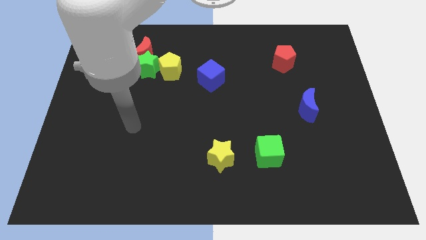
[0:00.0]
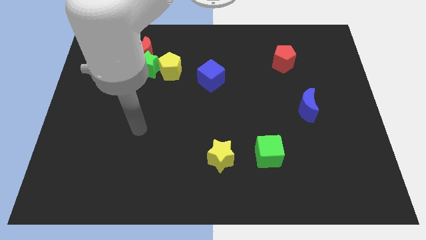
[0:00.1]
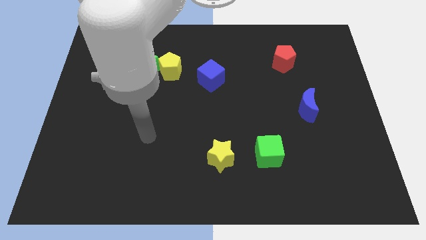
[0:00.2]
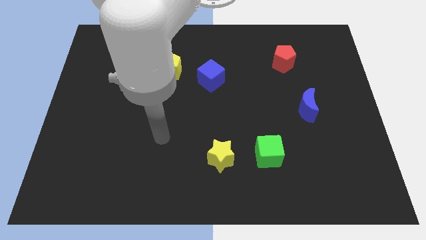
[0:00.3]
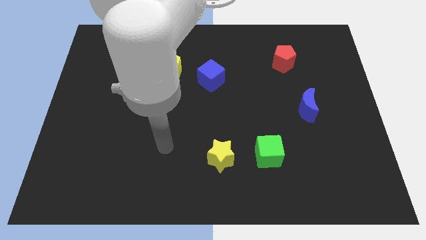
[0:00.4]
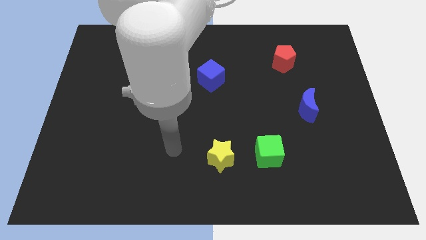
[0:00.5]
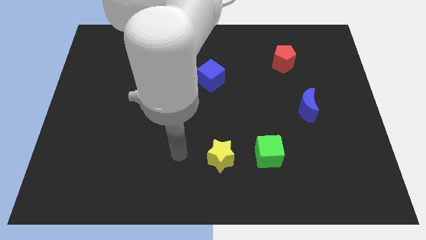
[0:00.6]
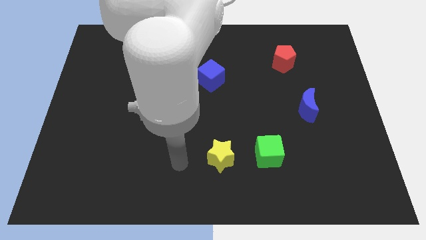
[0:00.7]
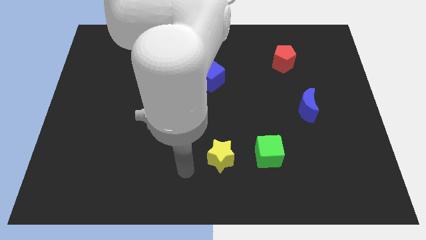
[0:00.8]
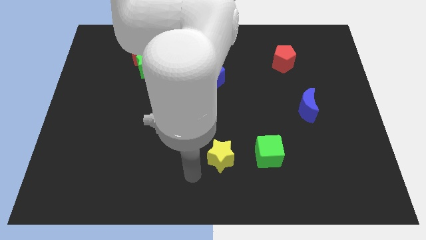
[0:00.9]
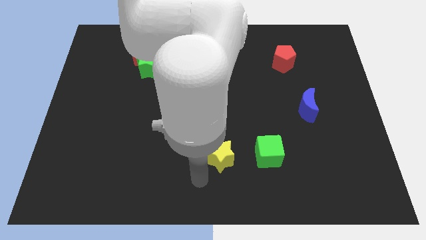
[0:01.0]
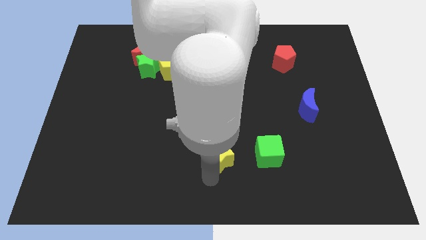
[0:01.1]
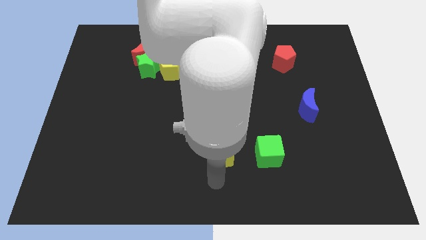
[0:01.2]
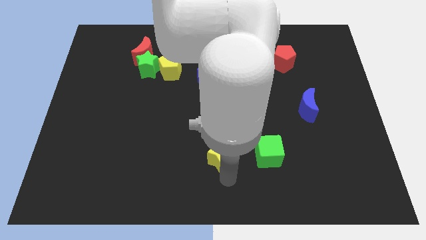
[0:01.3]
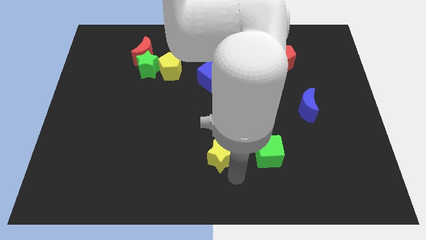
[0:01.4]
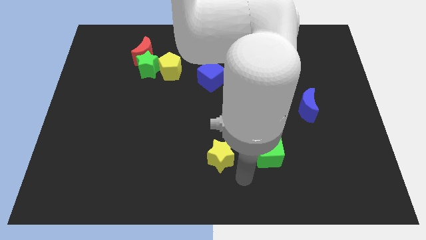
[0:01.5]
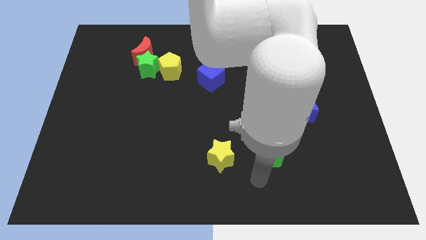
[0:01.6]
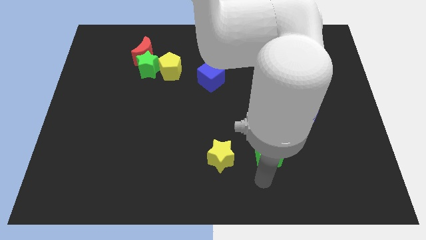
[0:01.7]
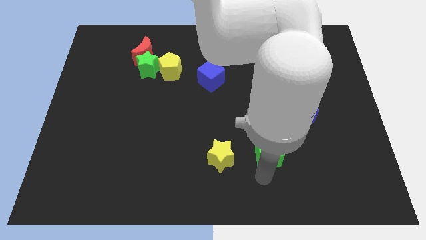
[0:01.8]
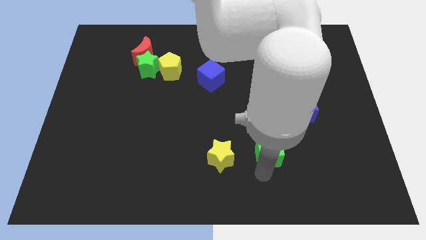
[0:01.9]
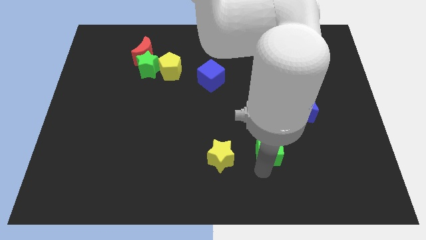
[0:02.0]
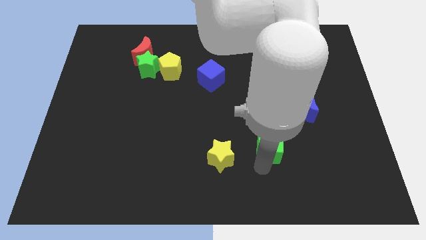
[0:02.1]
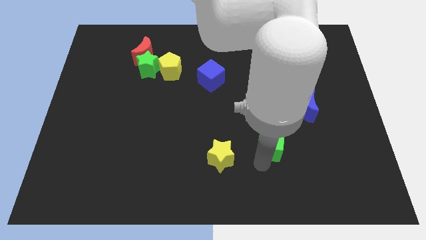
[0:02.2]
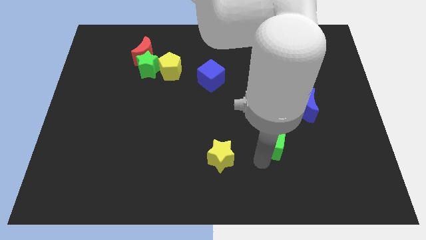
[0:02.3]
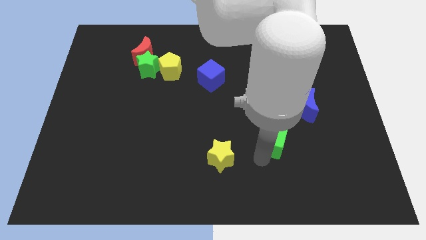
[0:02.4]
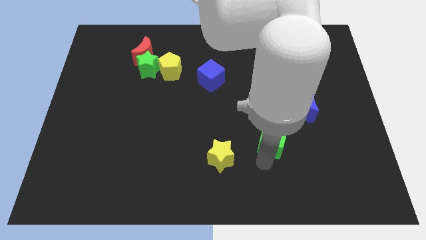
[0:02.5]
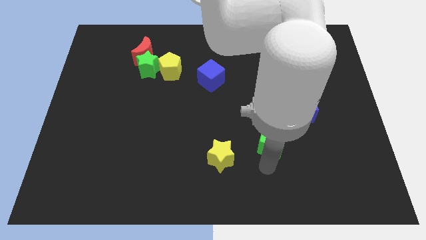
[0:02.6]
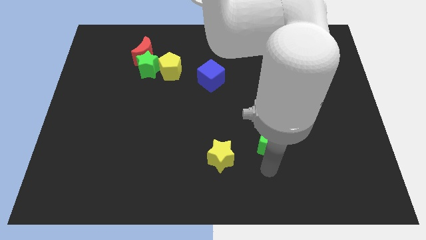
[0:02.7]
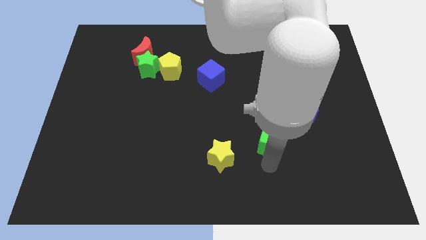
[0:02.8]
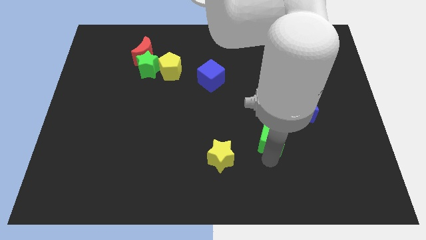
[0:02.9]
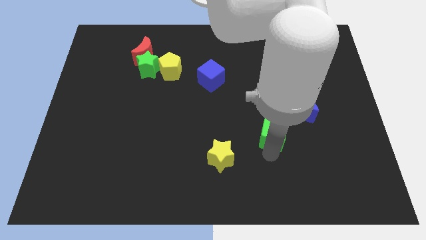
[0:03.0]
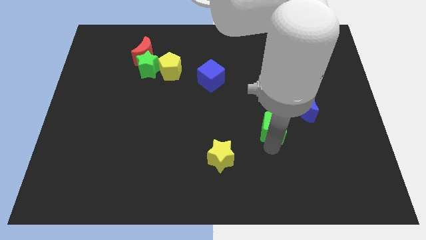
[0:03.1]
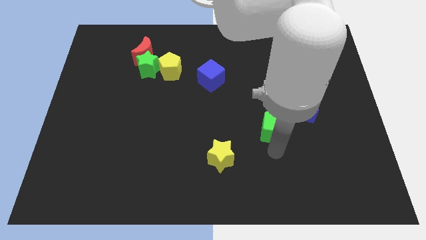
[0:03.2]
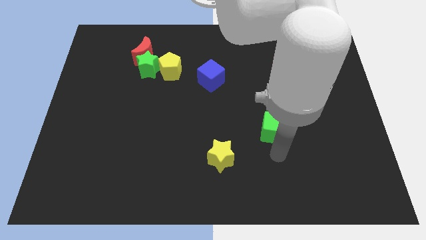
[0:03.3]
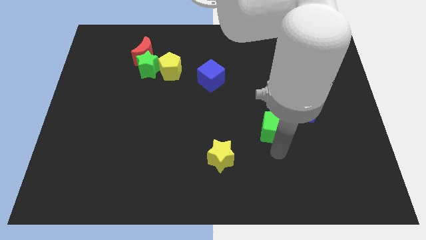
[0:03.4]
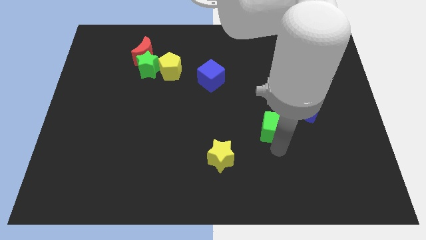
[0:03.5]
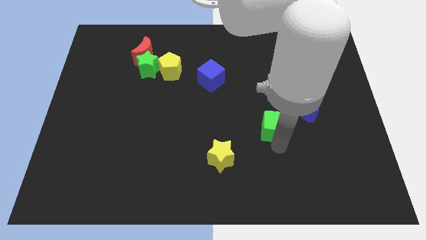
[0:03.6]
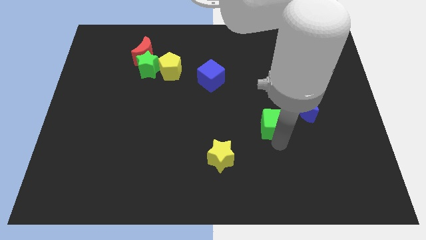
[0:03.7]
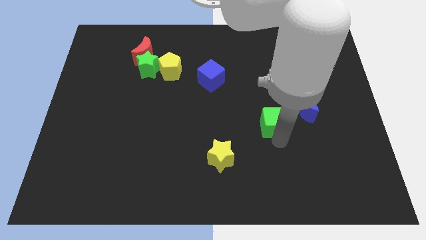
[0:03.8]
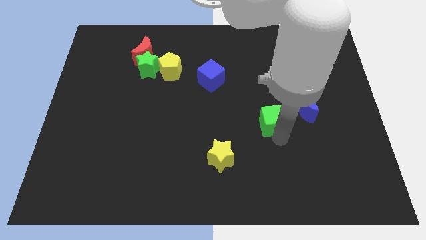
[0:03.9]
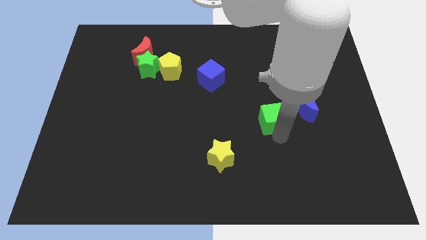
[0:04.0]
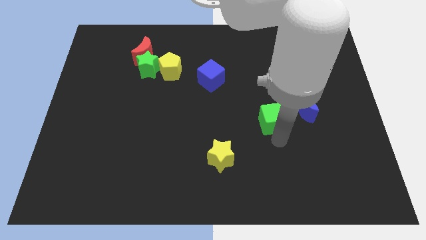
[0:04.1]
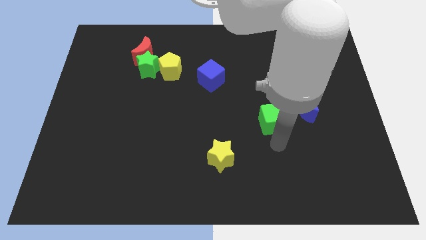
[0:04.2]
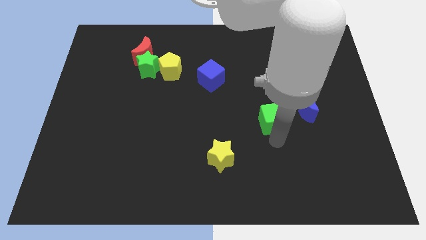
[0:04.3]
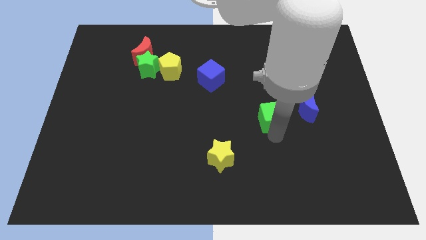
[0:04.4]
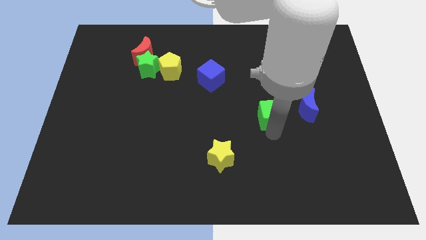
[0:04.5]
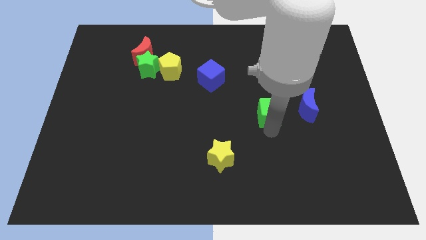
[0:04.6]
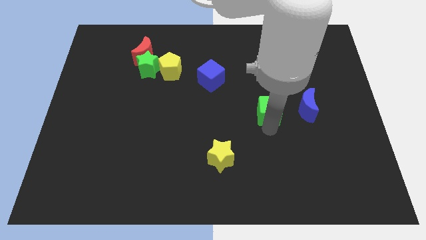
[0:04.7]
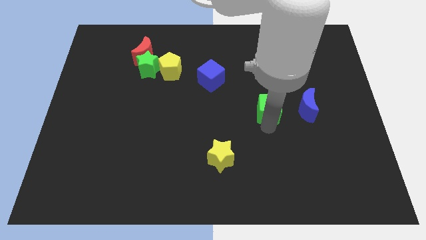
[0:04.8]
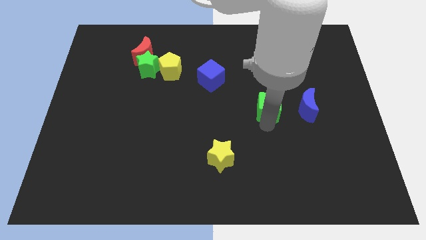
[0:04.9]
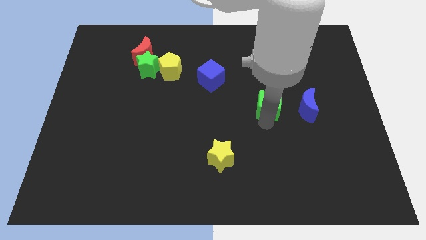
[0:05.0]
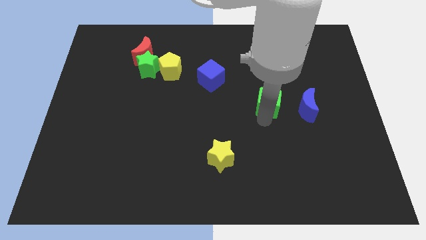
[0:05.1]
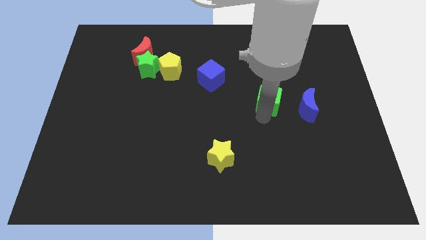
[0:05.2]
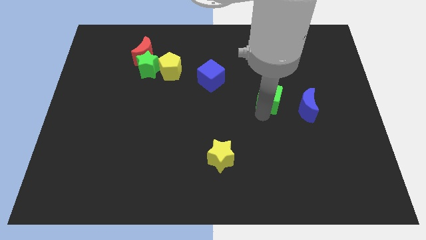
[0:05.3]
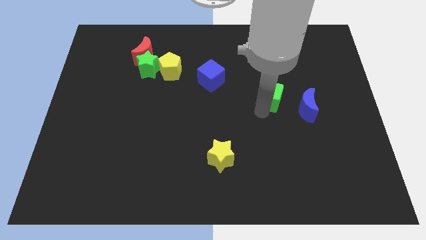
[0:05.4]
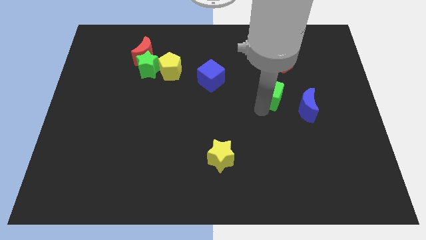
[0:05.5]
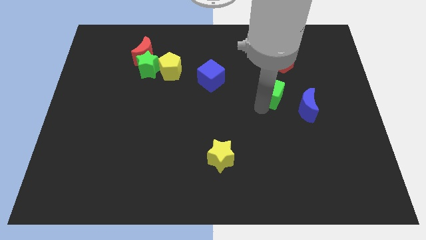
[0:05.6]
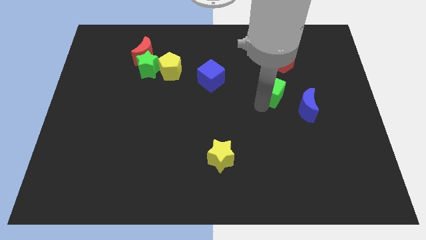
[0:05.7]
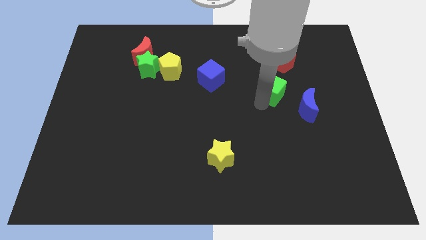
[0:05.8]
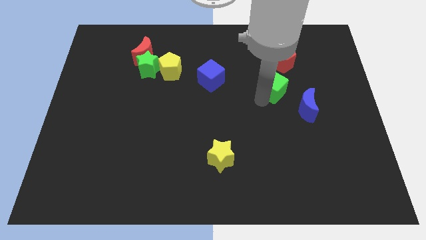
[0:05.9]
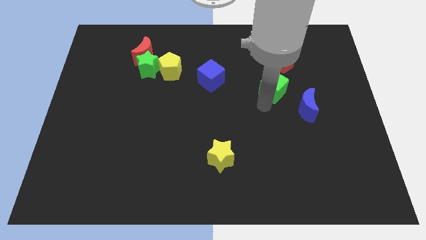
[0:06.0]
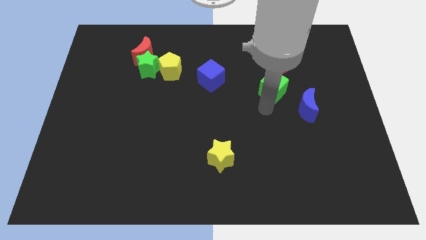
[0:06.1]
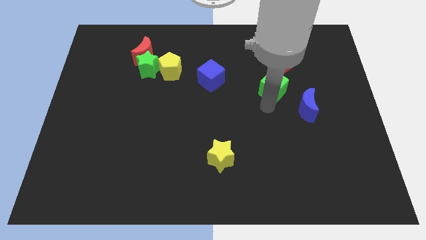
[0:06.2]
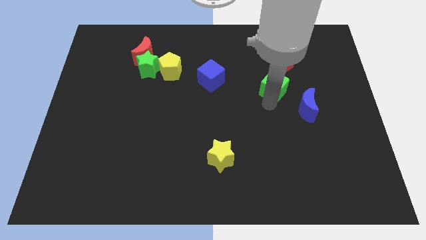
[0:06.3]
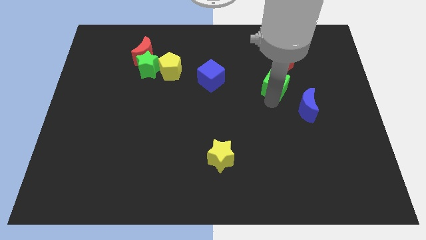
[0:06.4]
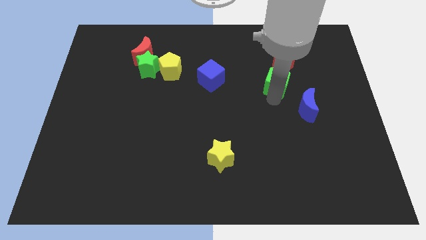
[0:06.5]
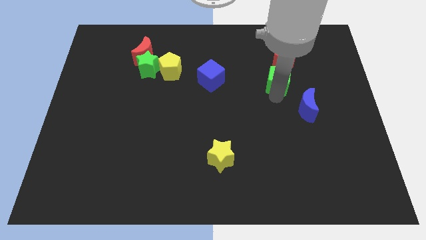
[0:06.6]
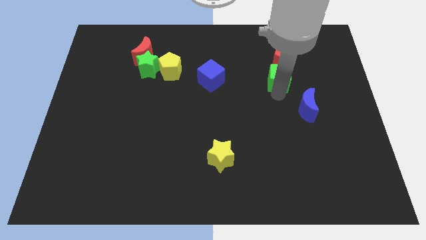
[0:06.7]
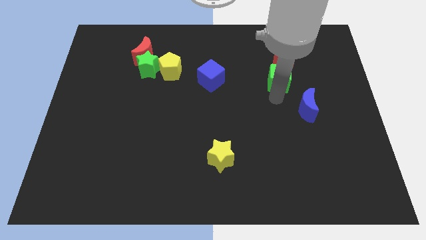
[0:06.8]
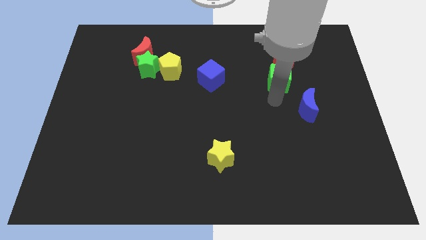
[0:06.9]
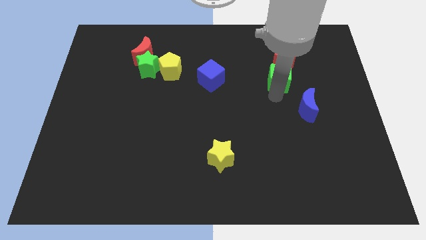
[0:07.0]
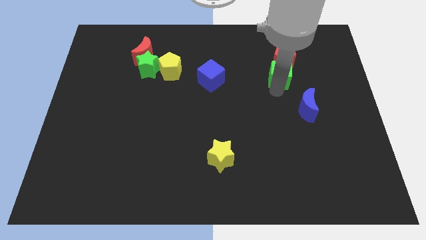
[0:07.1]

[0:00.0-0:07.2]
push the green cube towards the red pentagon

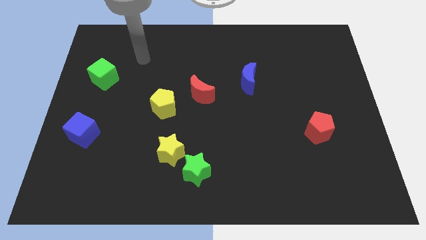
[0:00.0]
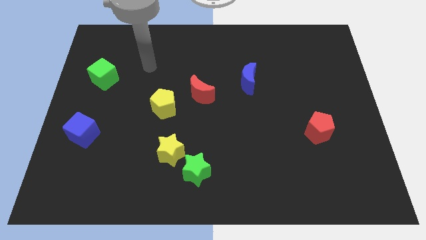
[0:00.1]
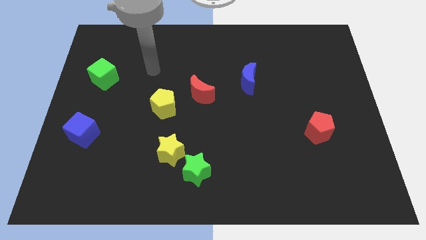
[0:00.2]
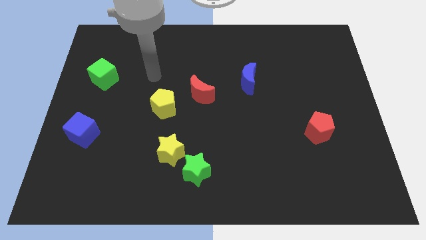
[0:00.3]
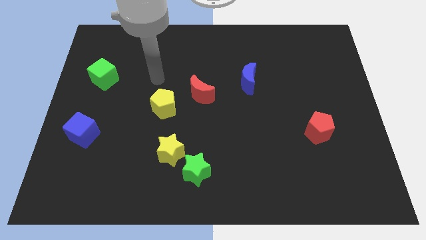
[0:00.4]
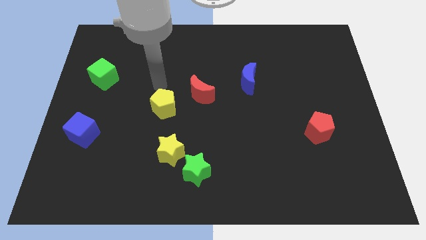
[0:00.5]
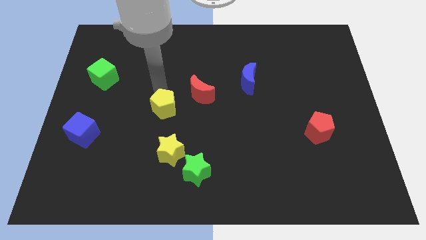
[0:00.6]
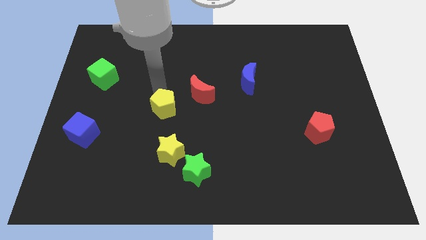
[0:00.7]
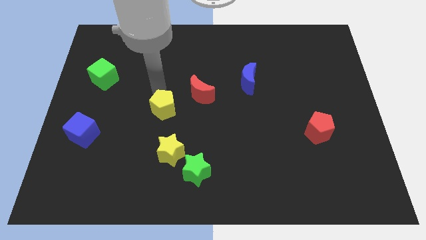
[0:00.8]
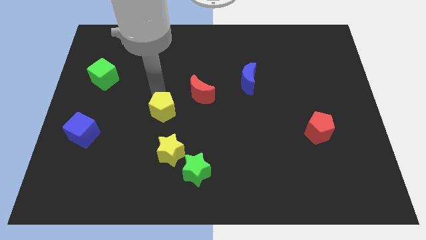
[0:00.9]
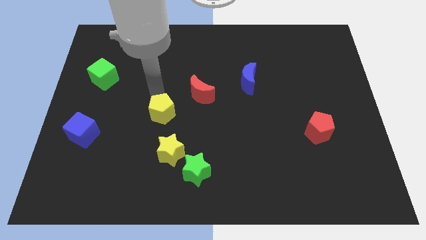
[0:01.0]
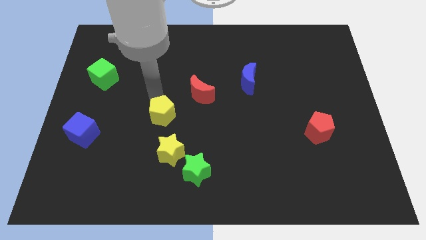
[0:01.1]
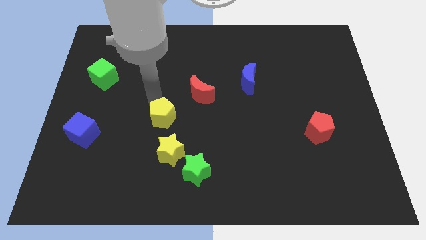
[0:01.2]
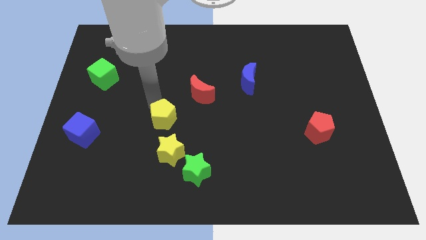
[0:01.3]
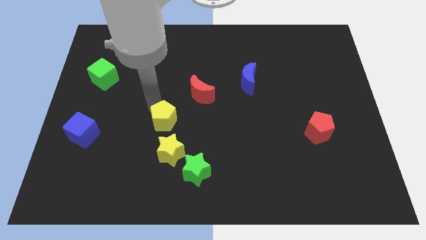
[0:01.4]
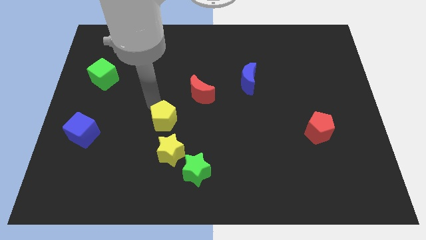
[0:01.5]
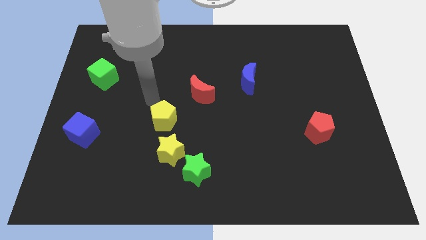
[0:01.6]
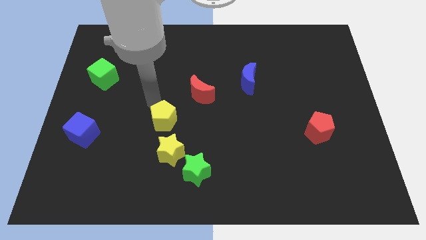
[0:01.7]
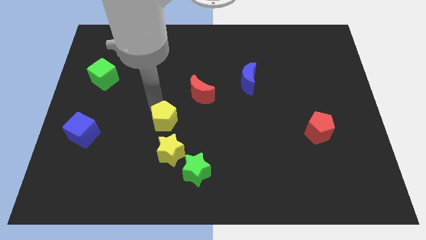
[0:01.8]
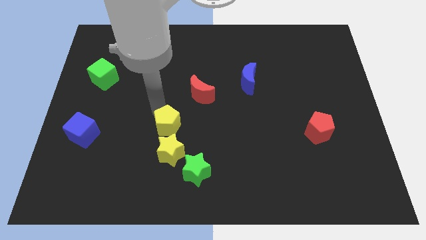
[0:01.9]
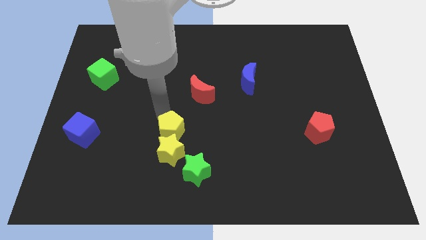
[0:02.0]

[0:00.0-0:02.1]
slide the yellow pentagon to the yellow star
